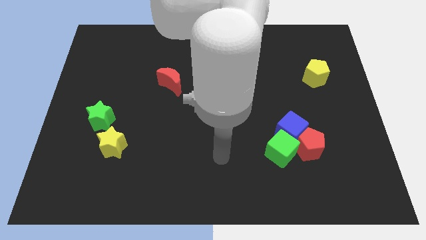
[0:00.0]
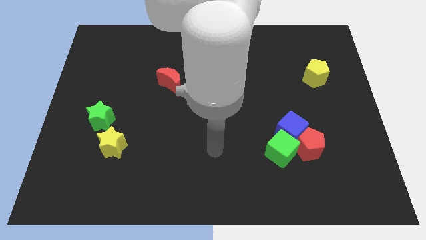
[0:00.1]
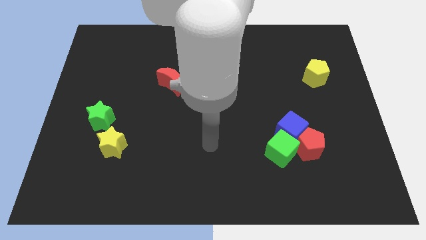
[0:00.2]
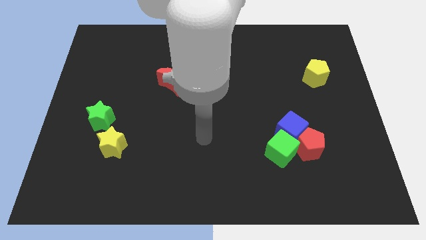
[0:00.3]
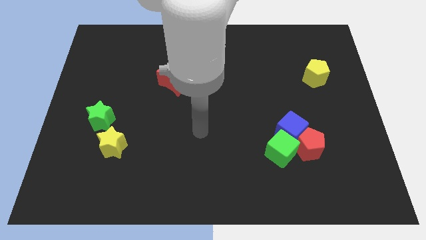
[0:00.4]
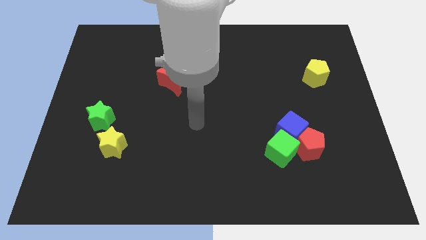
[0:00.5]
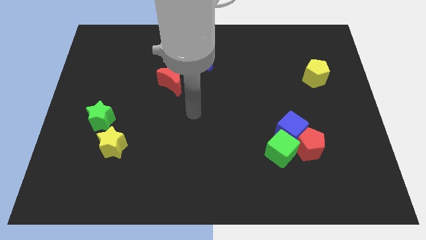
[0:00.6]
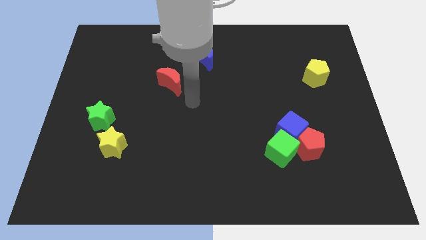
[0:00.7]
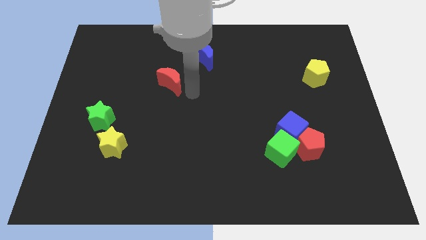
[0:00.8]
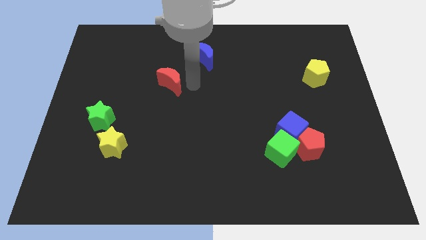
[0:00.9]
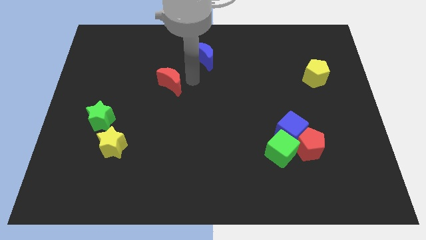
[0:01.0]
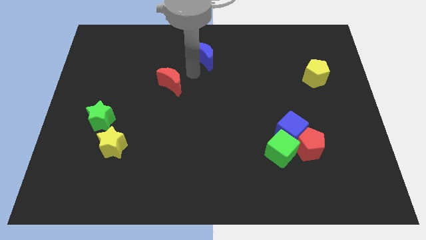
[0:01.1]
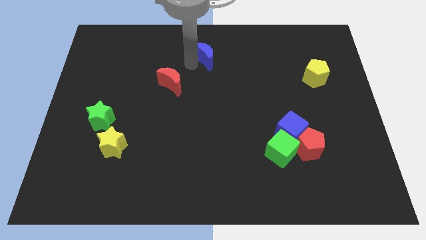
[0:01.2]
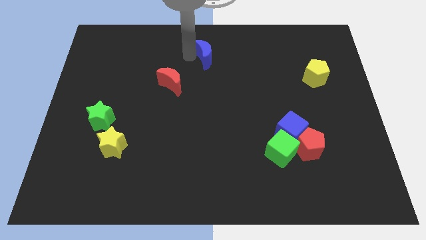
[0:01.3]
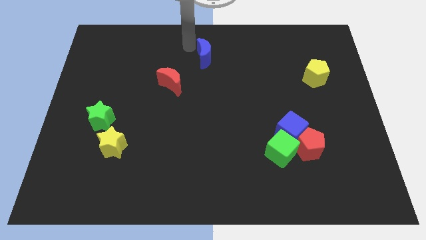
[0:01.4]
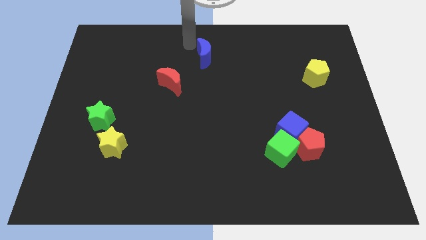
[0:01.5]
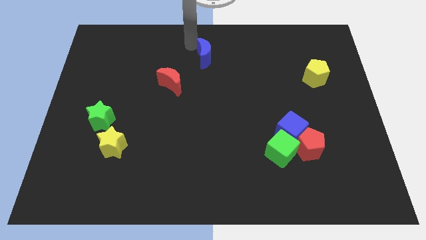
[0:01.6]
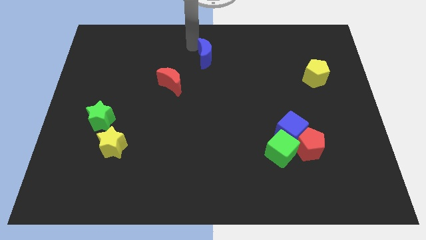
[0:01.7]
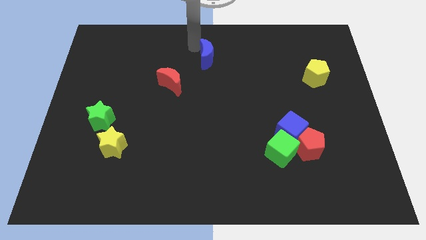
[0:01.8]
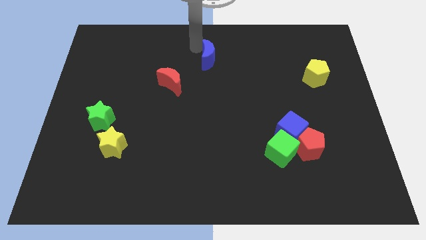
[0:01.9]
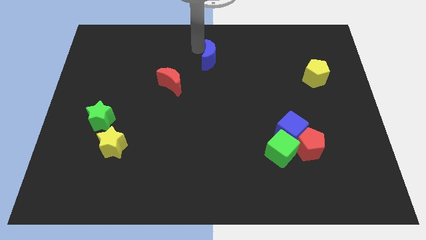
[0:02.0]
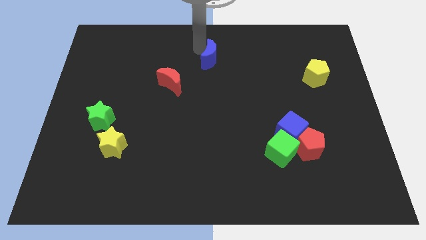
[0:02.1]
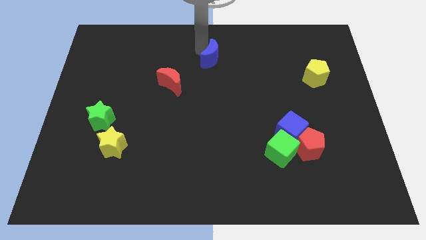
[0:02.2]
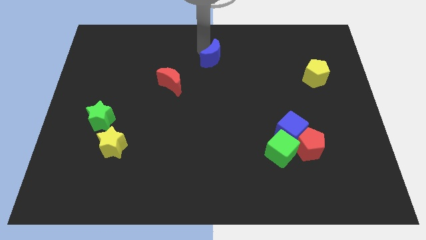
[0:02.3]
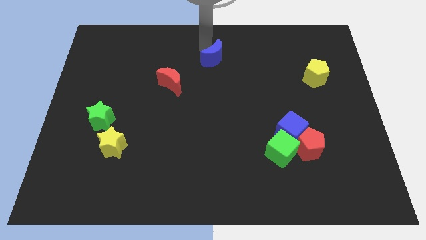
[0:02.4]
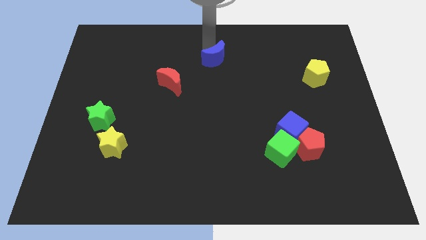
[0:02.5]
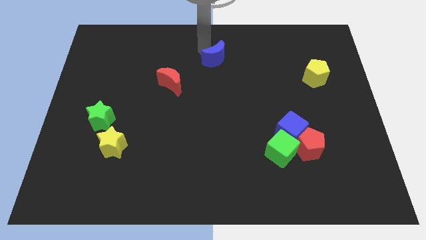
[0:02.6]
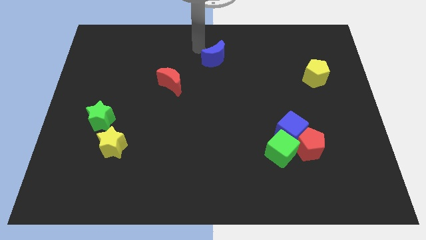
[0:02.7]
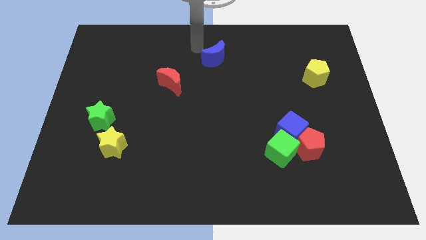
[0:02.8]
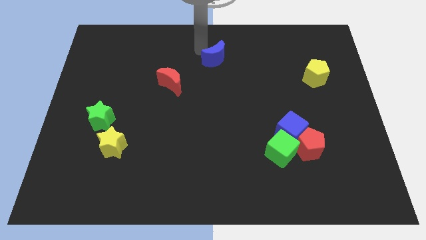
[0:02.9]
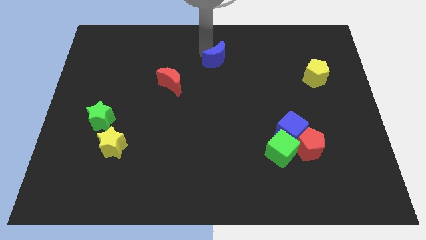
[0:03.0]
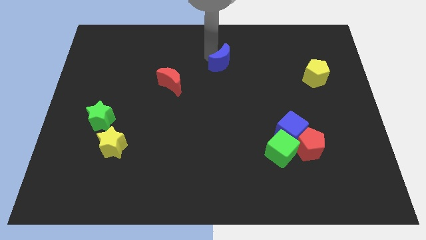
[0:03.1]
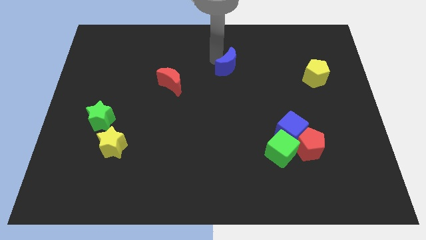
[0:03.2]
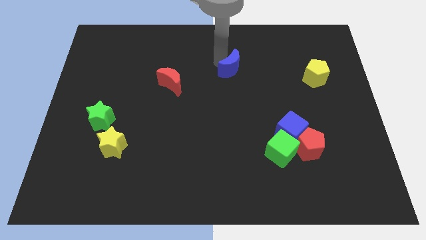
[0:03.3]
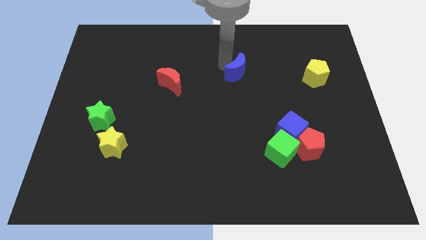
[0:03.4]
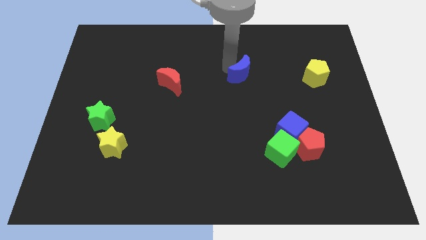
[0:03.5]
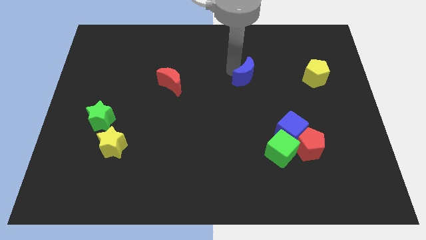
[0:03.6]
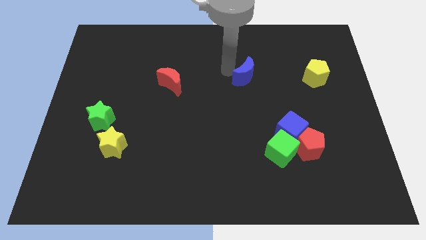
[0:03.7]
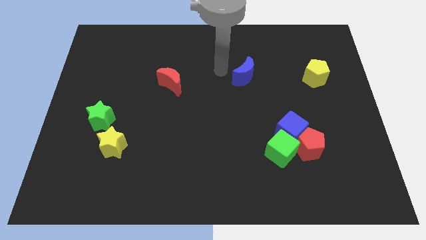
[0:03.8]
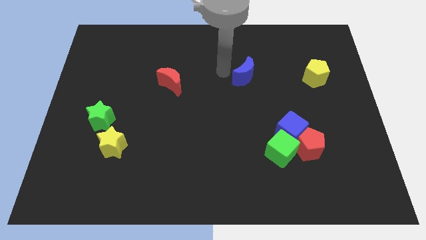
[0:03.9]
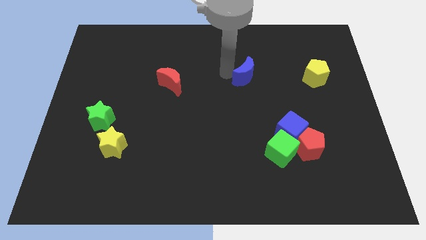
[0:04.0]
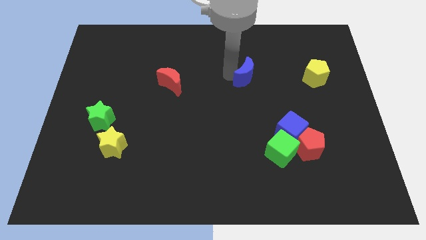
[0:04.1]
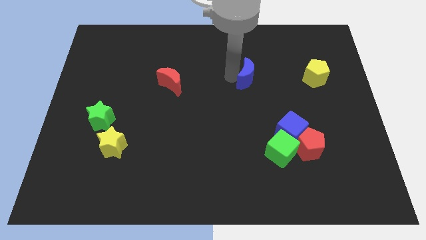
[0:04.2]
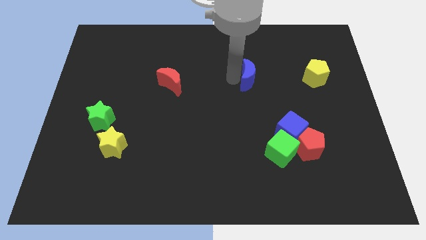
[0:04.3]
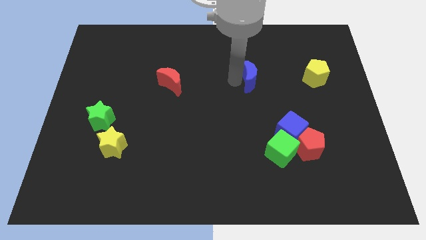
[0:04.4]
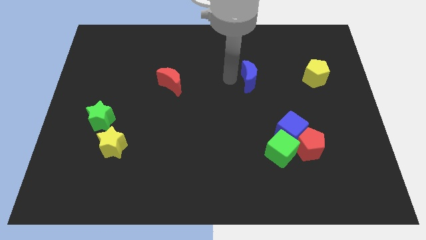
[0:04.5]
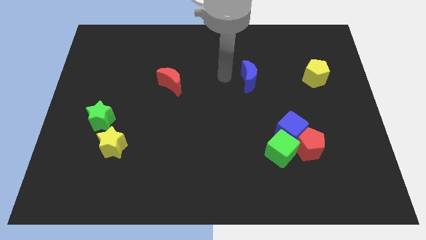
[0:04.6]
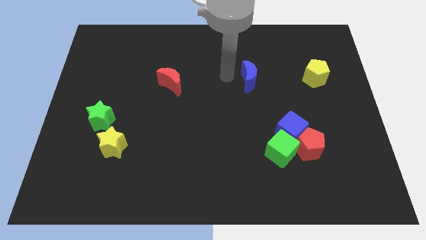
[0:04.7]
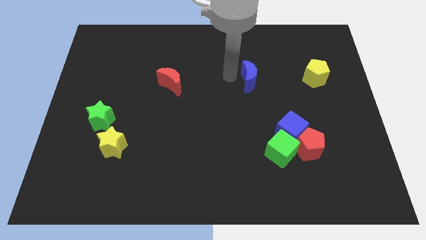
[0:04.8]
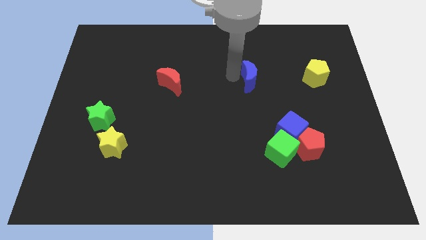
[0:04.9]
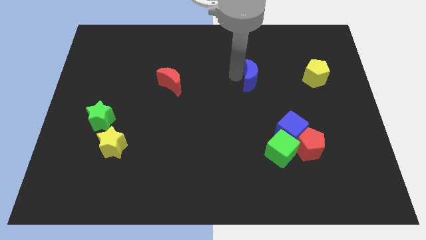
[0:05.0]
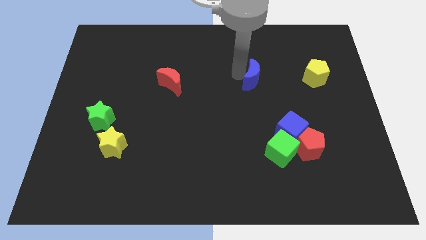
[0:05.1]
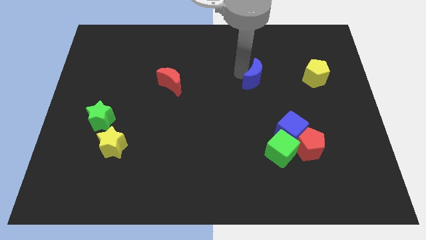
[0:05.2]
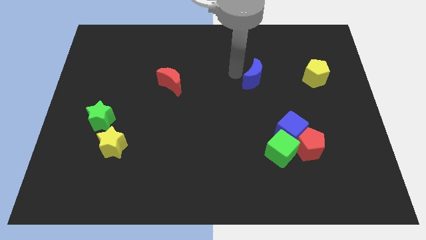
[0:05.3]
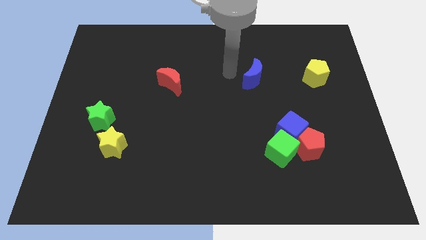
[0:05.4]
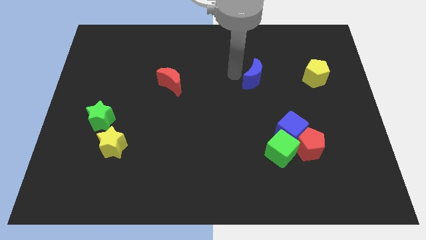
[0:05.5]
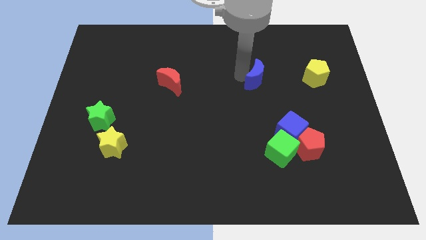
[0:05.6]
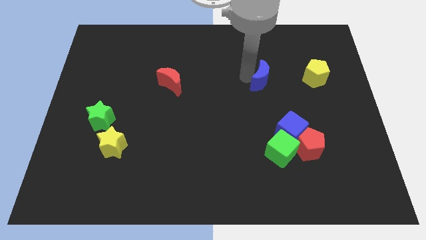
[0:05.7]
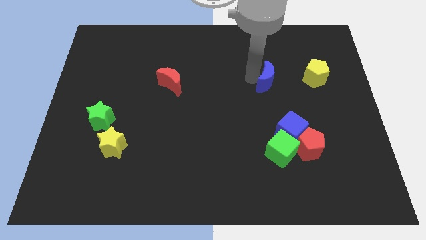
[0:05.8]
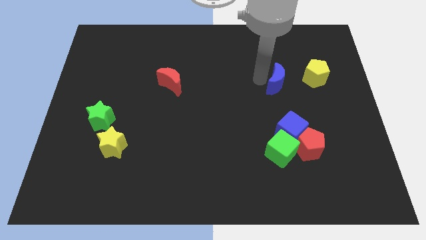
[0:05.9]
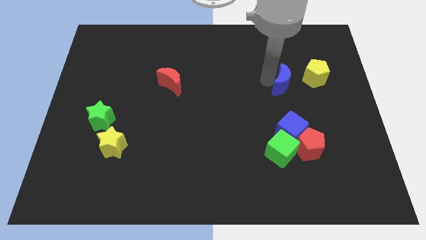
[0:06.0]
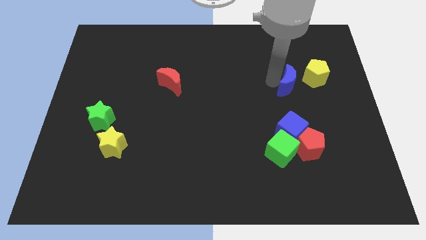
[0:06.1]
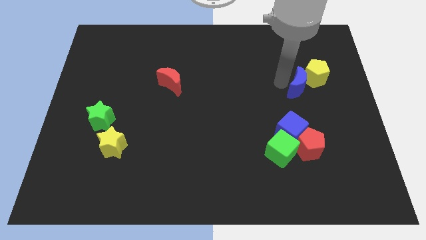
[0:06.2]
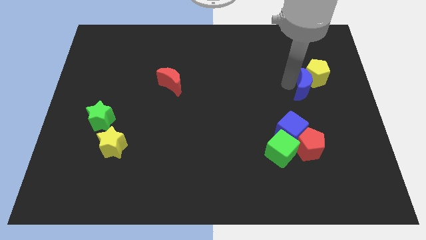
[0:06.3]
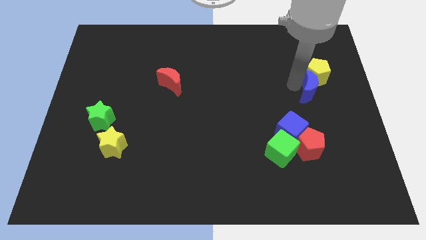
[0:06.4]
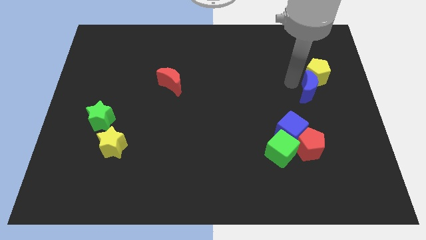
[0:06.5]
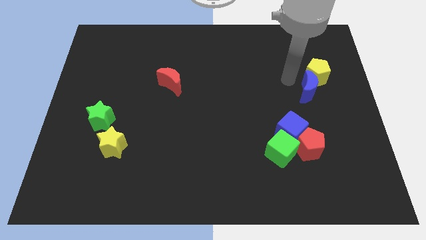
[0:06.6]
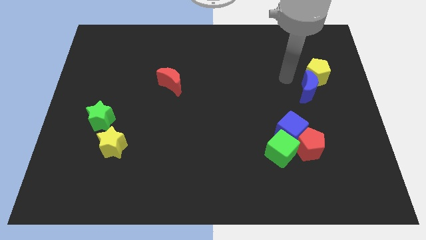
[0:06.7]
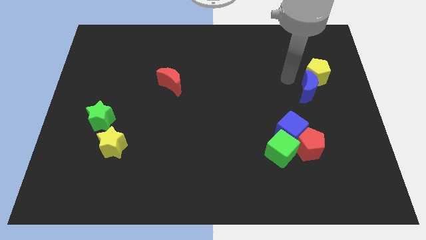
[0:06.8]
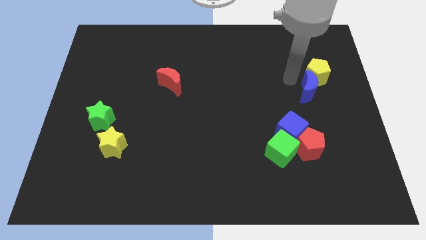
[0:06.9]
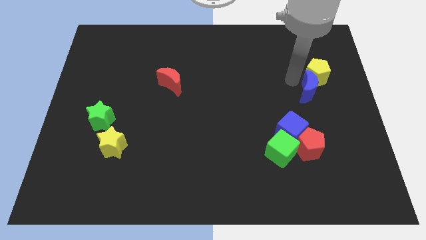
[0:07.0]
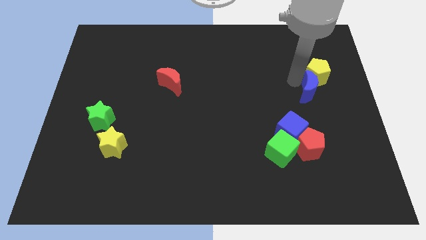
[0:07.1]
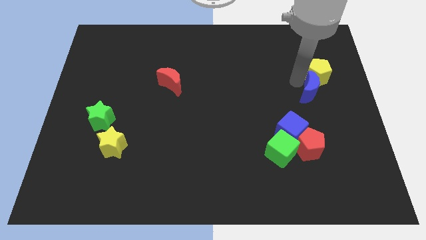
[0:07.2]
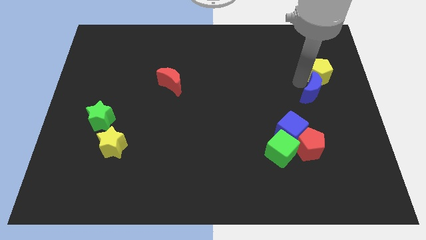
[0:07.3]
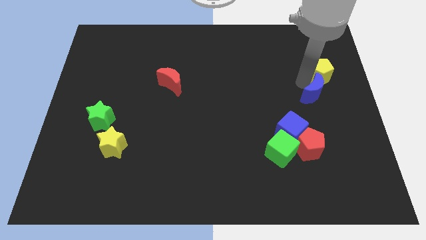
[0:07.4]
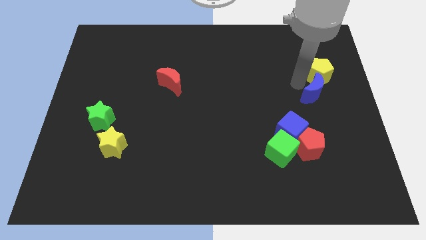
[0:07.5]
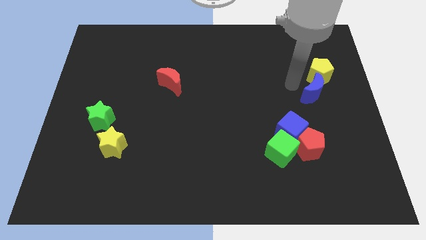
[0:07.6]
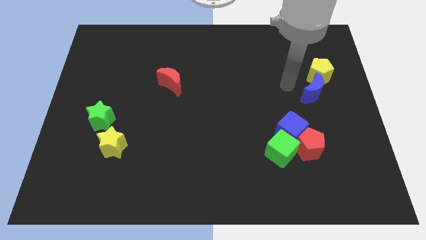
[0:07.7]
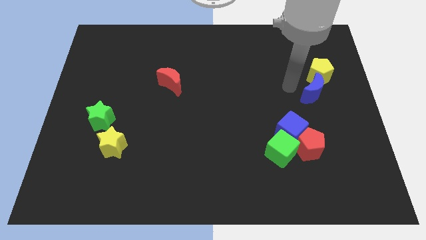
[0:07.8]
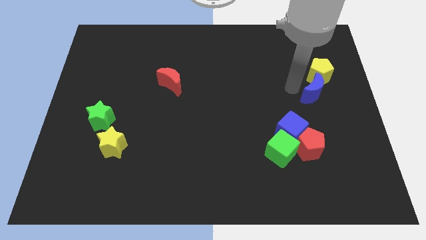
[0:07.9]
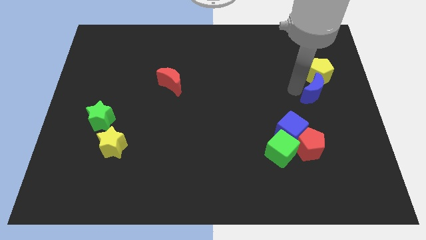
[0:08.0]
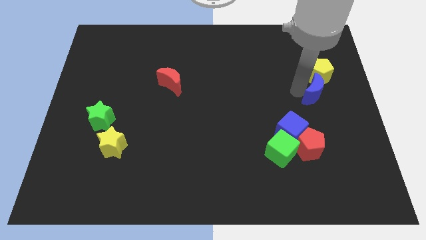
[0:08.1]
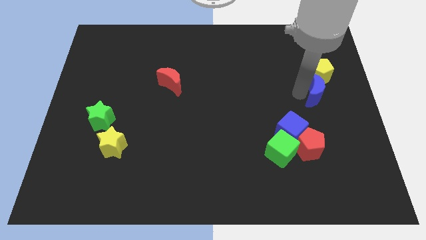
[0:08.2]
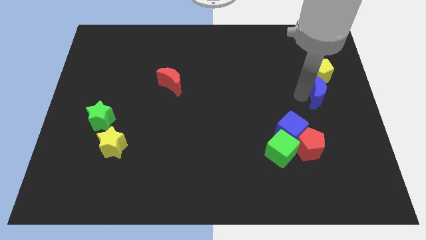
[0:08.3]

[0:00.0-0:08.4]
slide the blue moon to the center right
